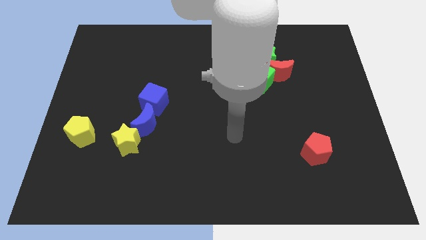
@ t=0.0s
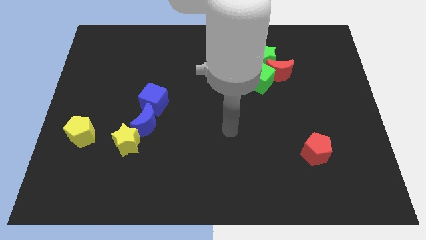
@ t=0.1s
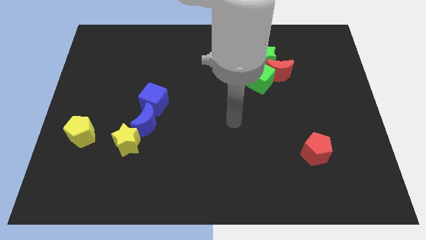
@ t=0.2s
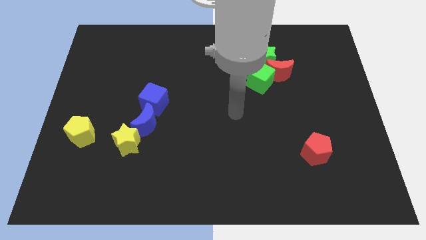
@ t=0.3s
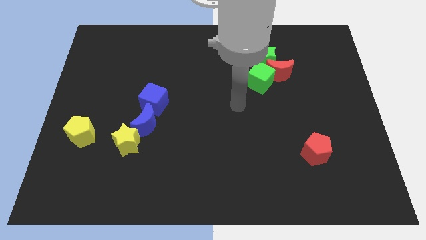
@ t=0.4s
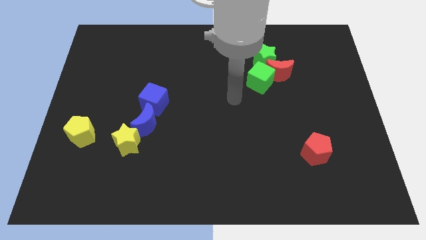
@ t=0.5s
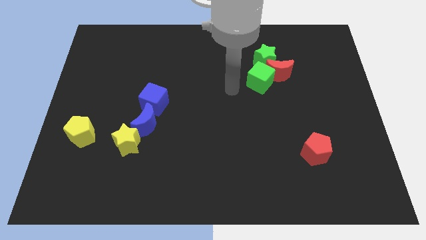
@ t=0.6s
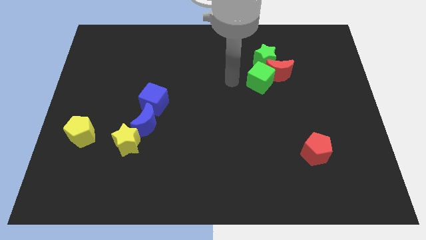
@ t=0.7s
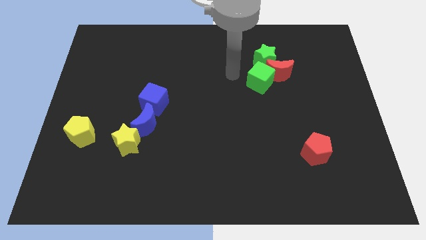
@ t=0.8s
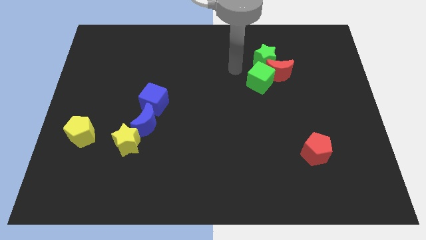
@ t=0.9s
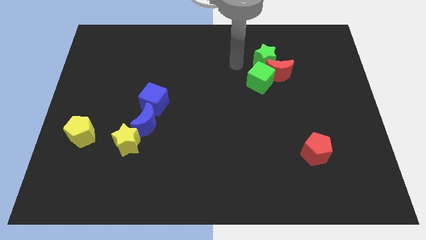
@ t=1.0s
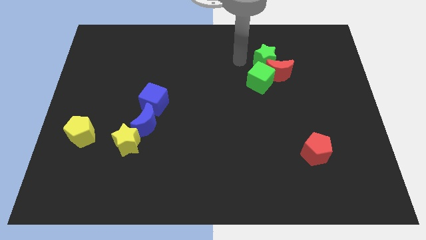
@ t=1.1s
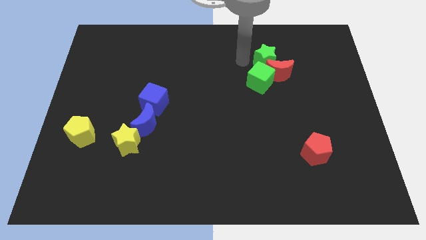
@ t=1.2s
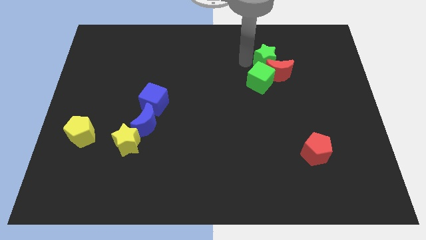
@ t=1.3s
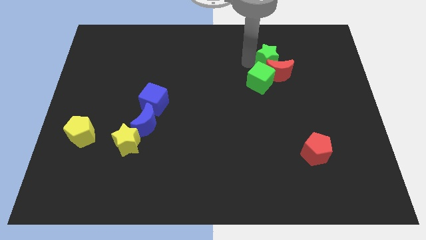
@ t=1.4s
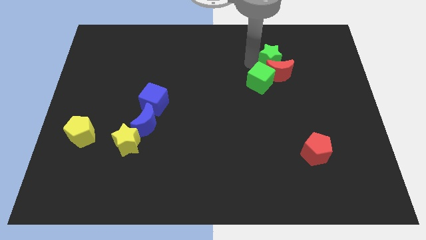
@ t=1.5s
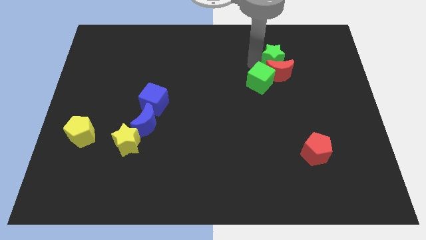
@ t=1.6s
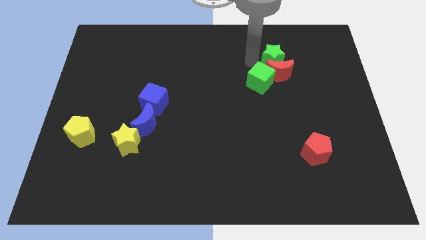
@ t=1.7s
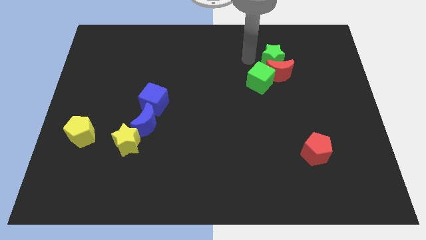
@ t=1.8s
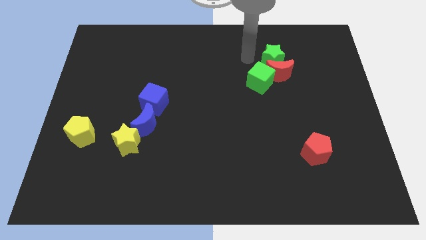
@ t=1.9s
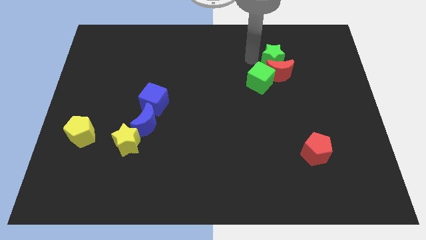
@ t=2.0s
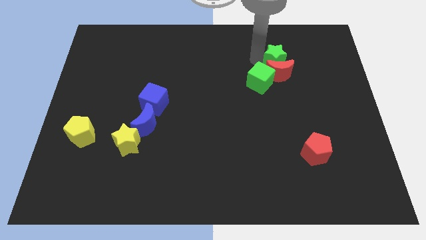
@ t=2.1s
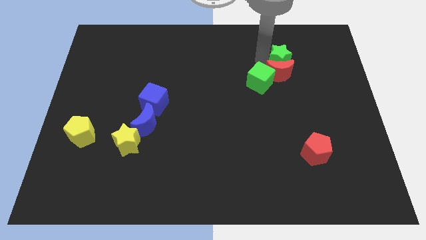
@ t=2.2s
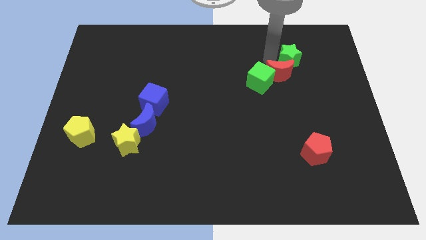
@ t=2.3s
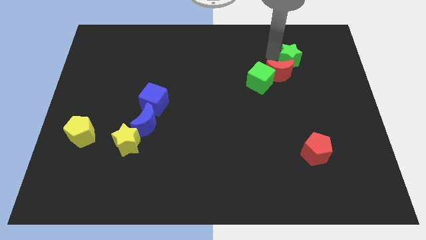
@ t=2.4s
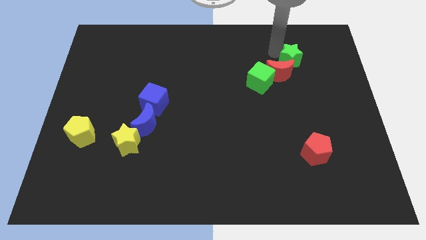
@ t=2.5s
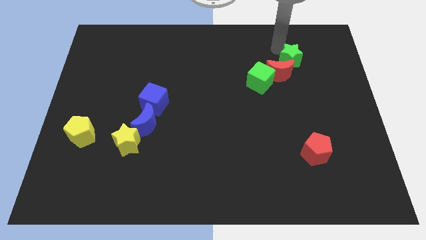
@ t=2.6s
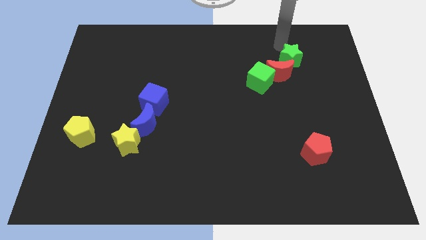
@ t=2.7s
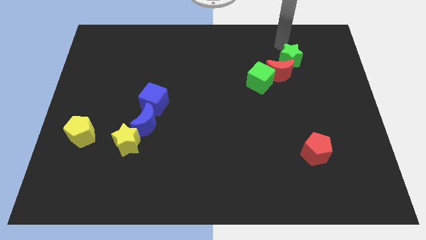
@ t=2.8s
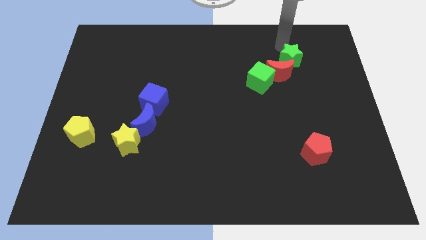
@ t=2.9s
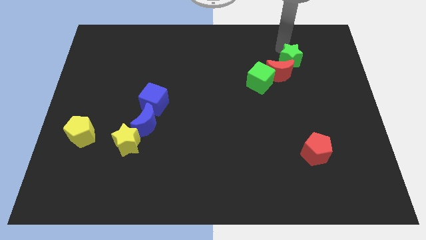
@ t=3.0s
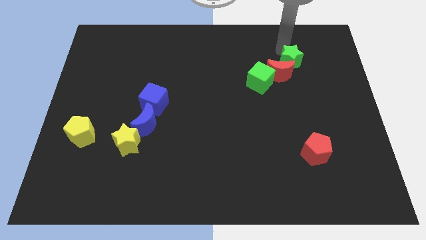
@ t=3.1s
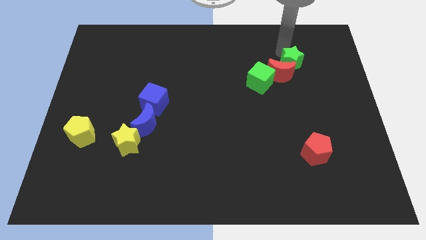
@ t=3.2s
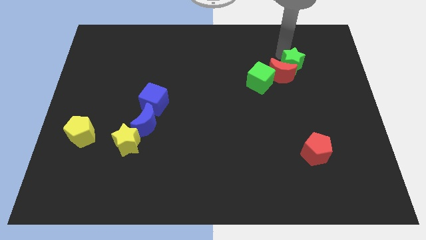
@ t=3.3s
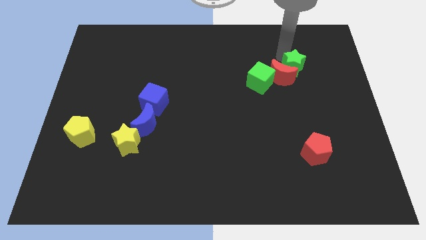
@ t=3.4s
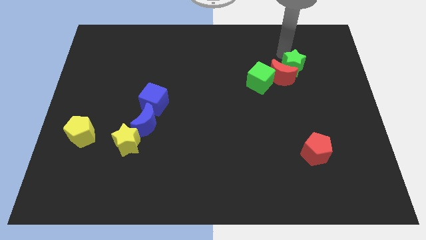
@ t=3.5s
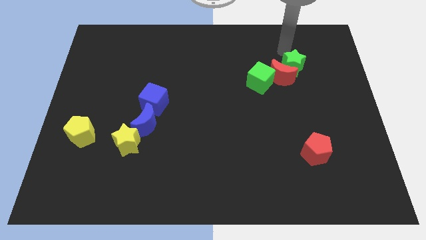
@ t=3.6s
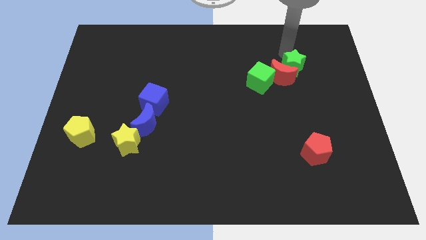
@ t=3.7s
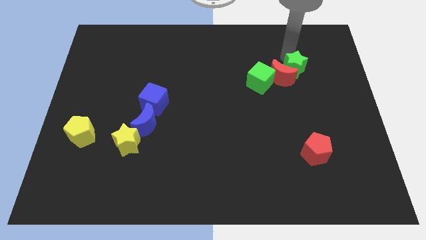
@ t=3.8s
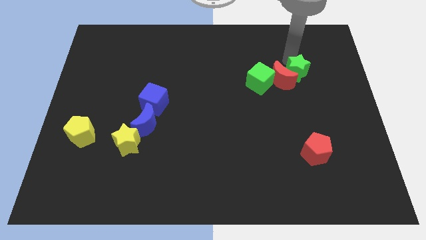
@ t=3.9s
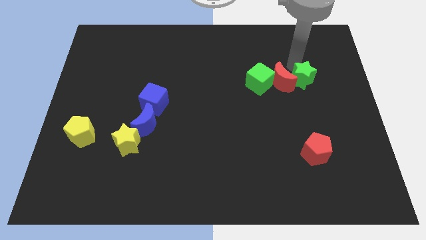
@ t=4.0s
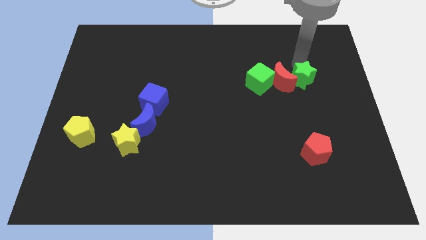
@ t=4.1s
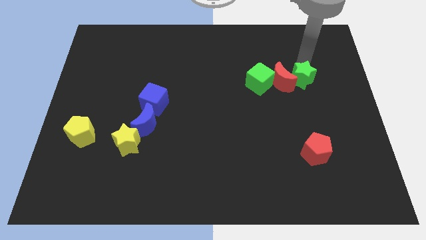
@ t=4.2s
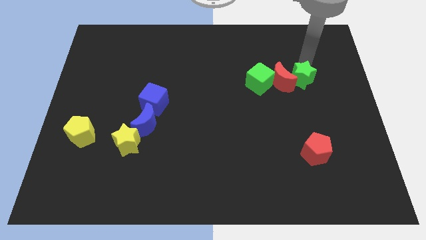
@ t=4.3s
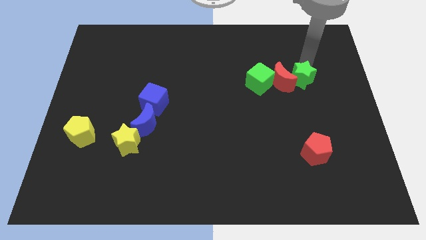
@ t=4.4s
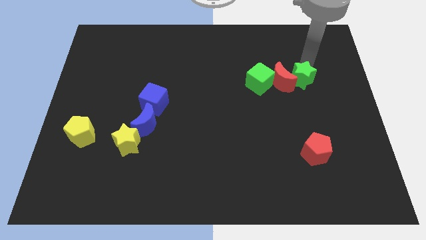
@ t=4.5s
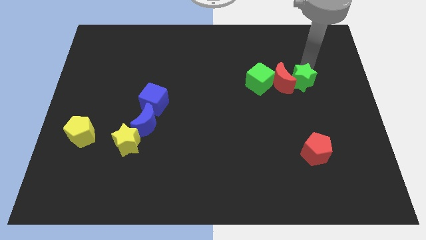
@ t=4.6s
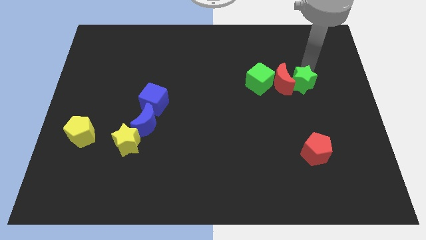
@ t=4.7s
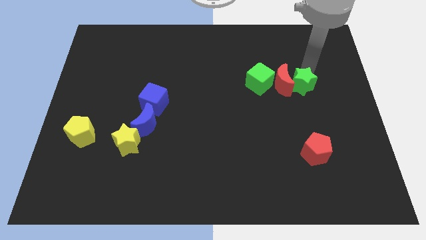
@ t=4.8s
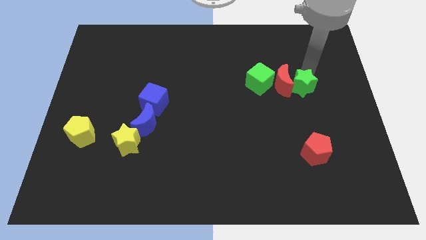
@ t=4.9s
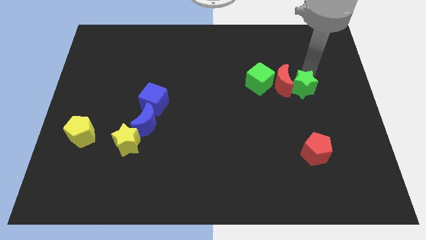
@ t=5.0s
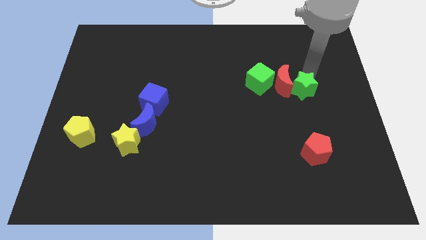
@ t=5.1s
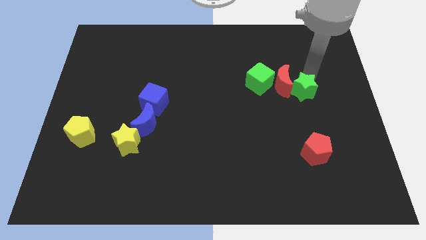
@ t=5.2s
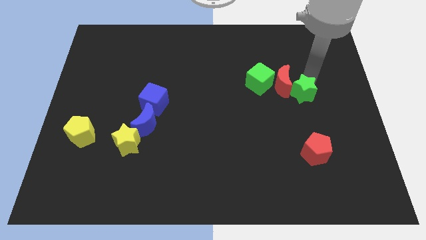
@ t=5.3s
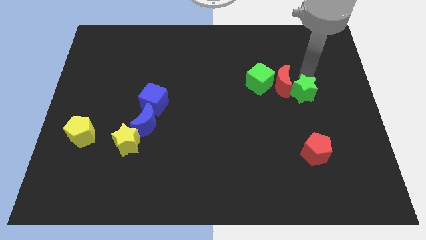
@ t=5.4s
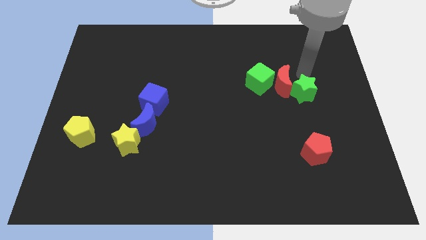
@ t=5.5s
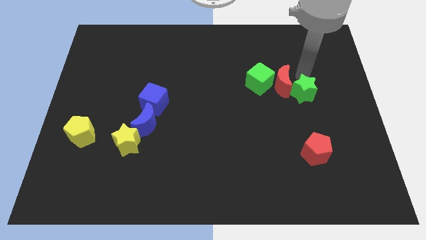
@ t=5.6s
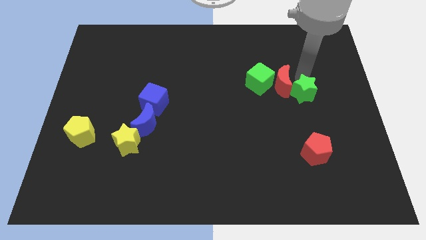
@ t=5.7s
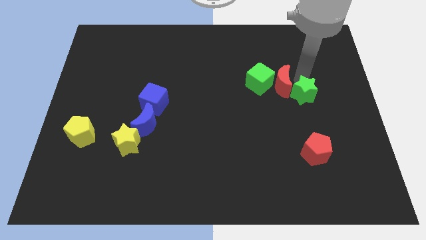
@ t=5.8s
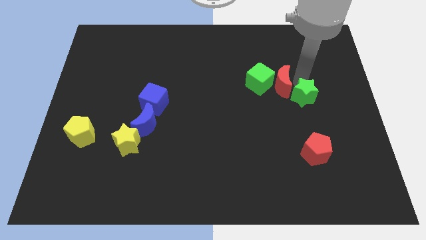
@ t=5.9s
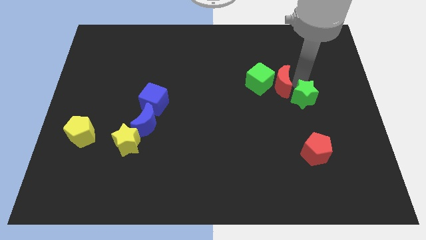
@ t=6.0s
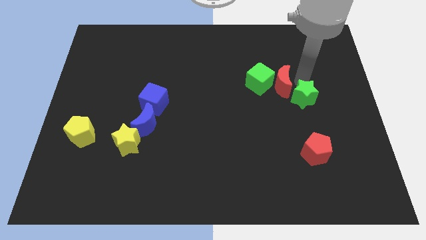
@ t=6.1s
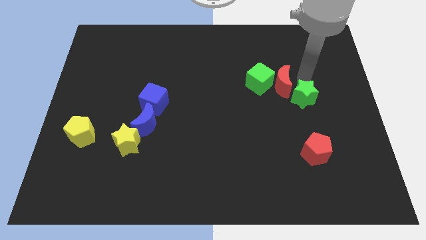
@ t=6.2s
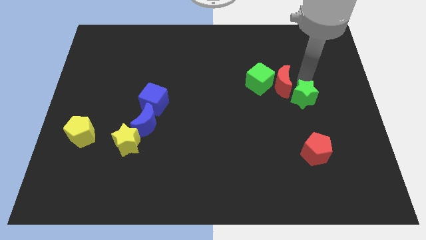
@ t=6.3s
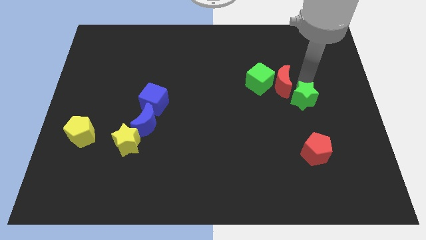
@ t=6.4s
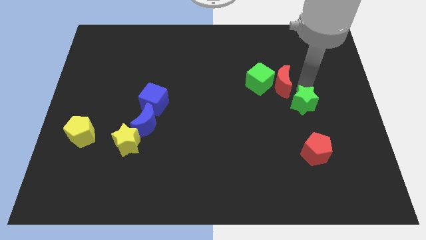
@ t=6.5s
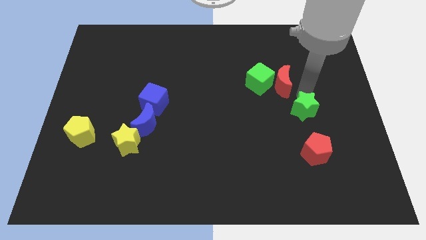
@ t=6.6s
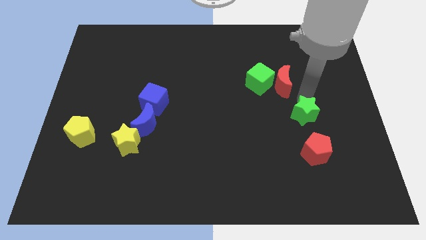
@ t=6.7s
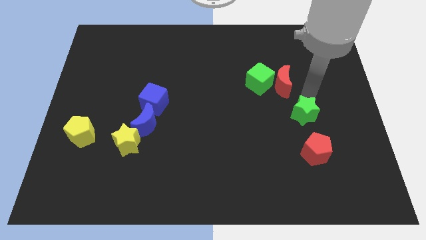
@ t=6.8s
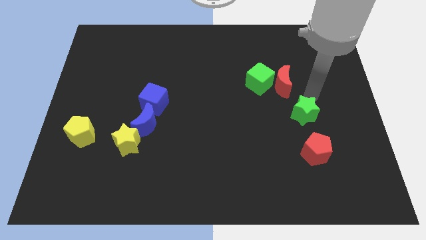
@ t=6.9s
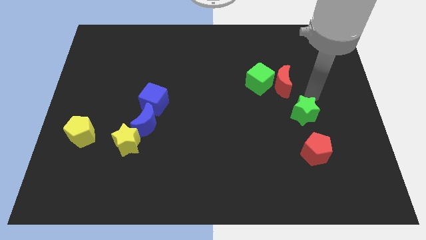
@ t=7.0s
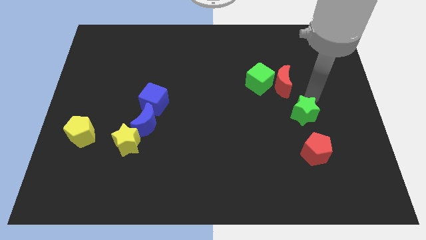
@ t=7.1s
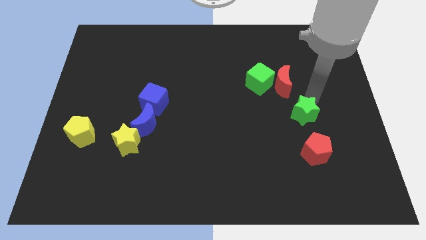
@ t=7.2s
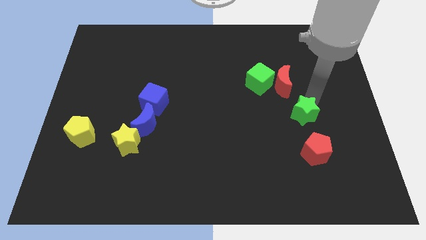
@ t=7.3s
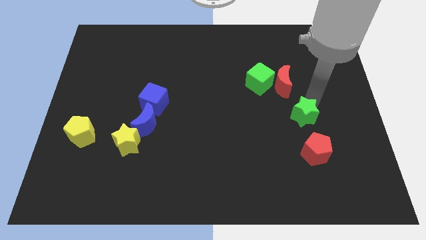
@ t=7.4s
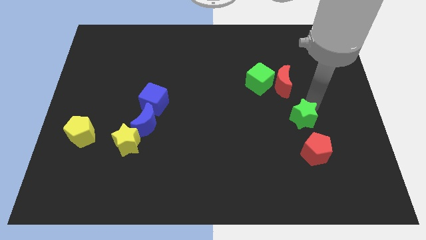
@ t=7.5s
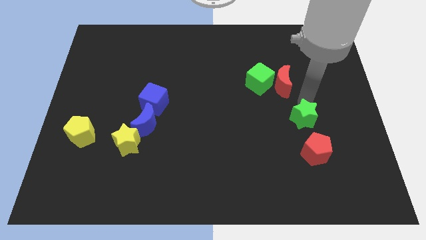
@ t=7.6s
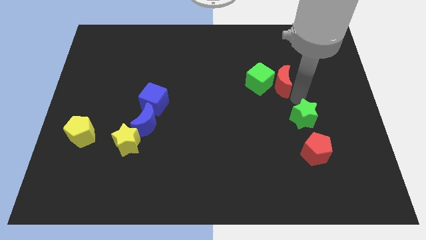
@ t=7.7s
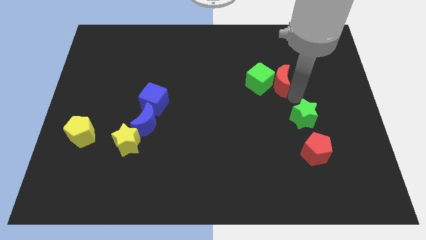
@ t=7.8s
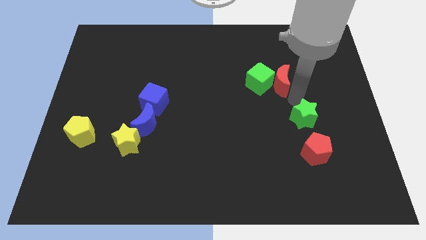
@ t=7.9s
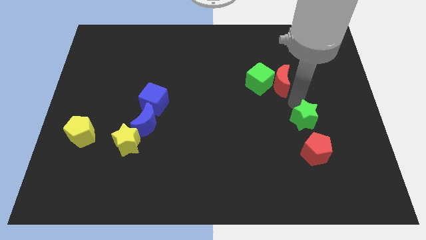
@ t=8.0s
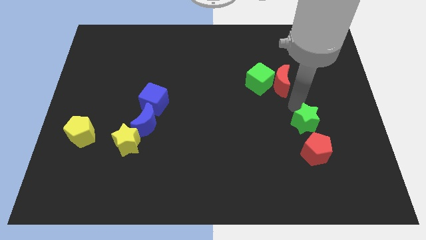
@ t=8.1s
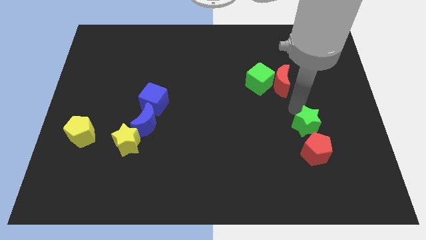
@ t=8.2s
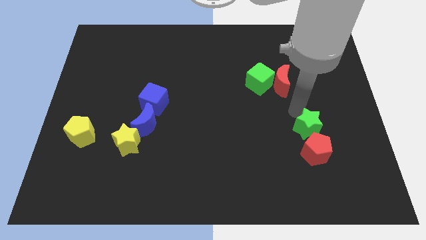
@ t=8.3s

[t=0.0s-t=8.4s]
slide the green star close to the red pentagon
